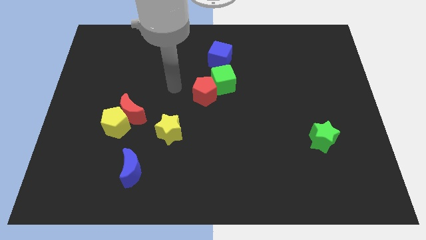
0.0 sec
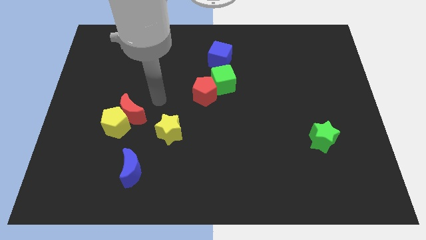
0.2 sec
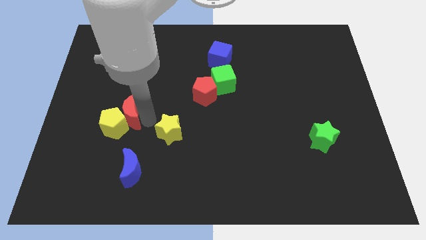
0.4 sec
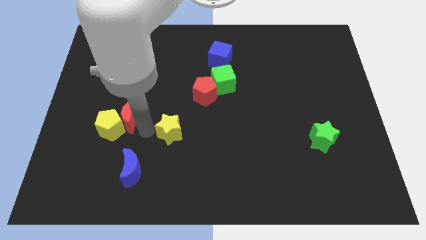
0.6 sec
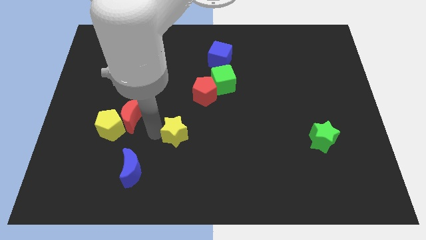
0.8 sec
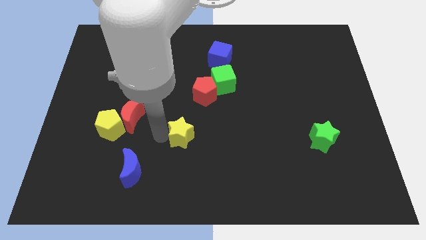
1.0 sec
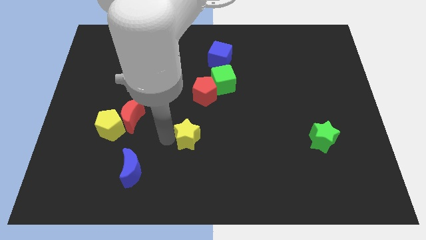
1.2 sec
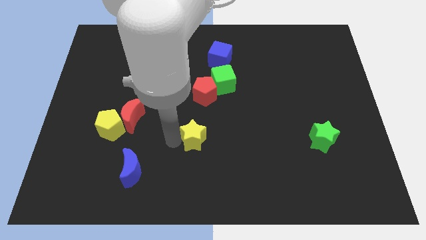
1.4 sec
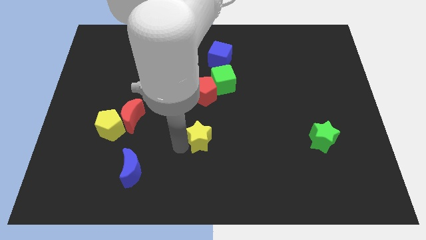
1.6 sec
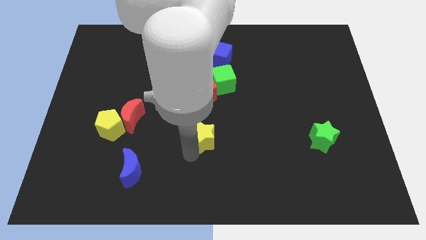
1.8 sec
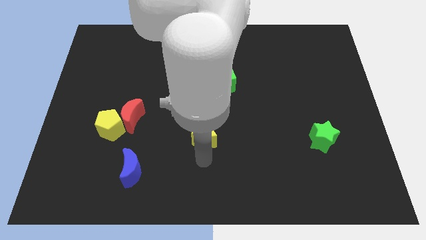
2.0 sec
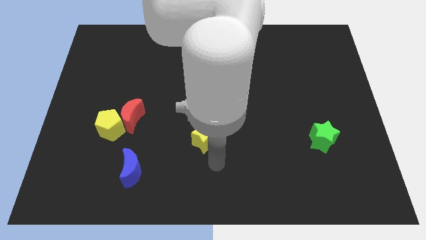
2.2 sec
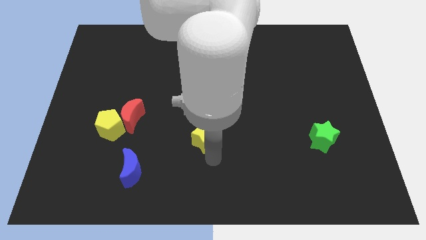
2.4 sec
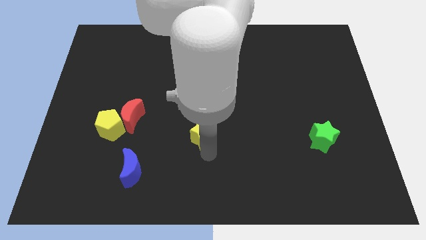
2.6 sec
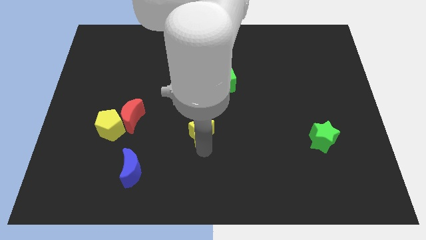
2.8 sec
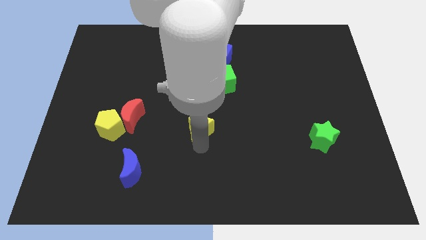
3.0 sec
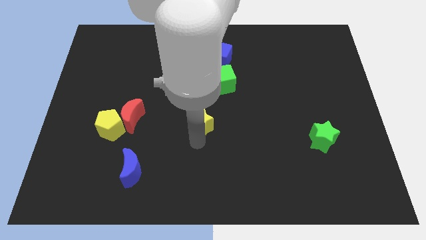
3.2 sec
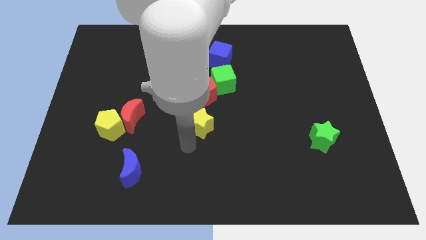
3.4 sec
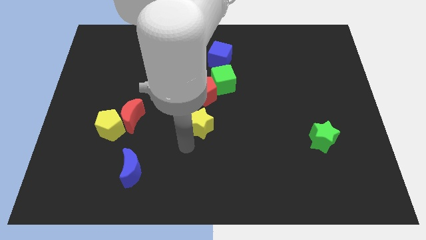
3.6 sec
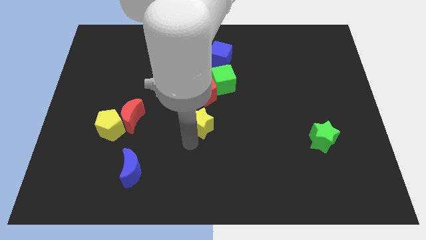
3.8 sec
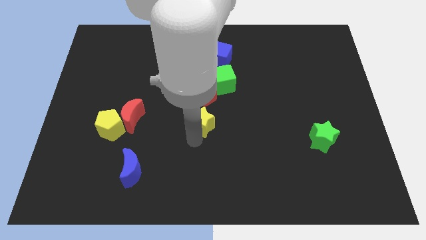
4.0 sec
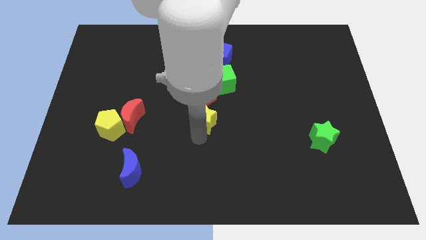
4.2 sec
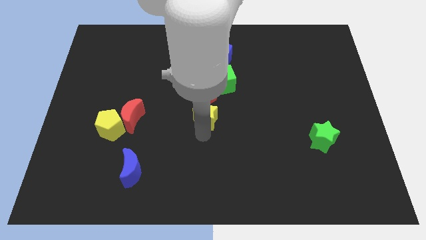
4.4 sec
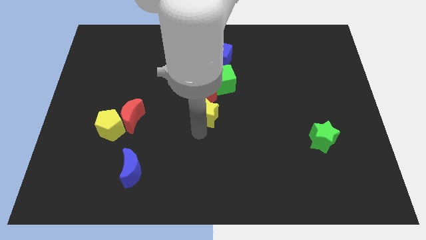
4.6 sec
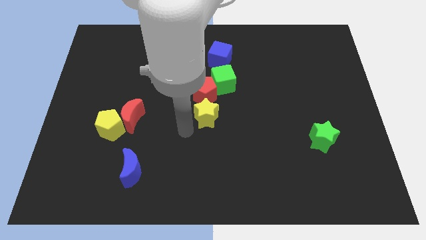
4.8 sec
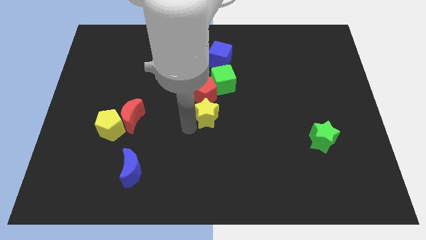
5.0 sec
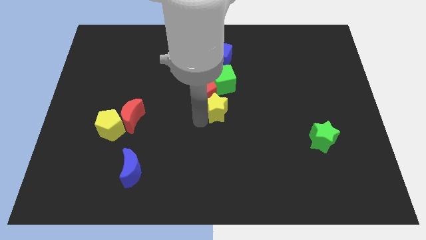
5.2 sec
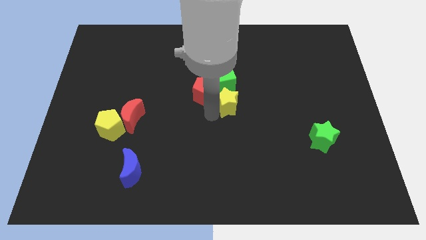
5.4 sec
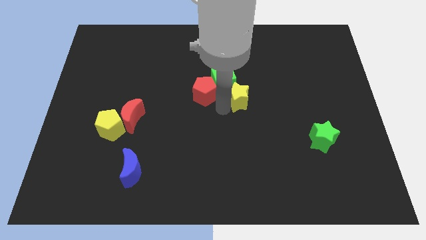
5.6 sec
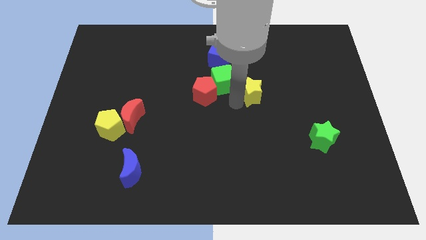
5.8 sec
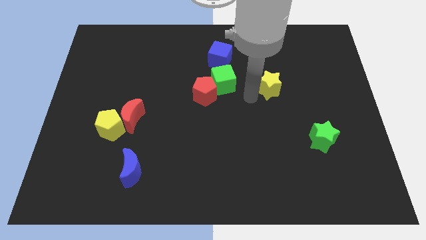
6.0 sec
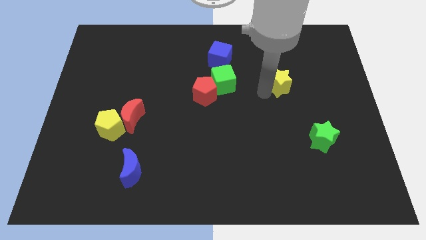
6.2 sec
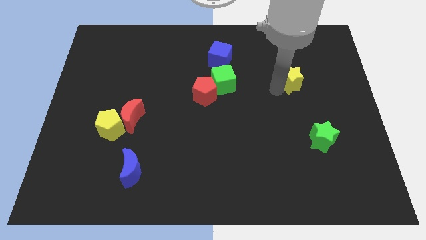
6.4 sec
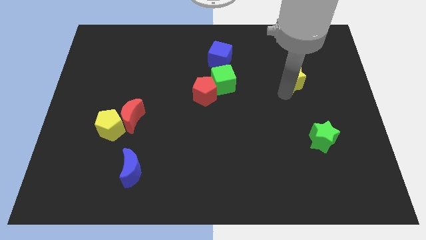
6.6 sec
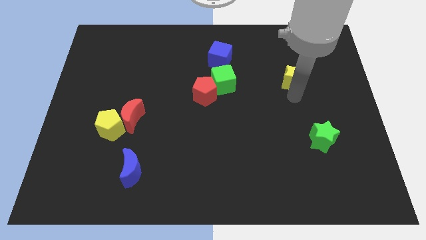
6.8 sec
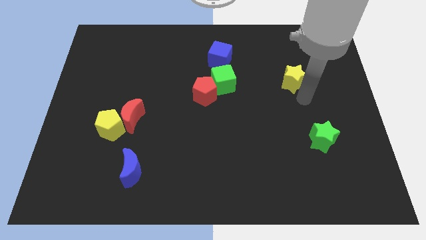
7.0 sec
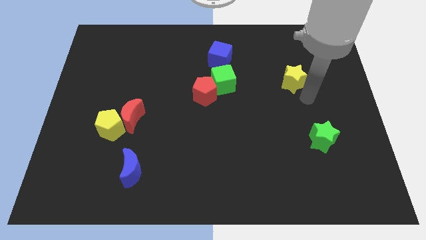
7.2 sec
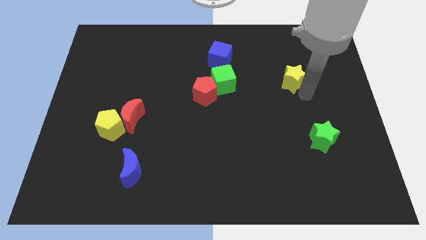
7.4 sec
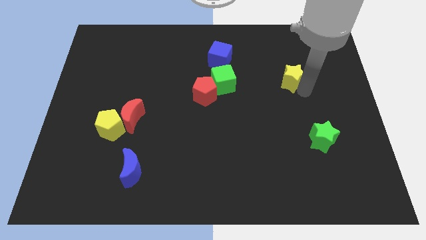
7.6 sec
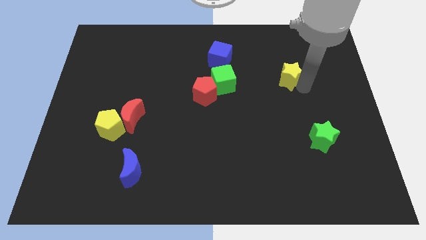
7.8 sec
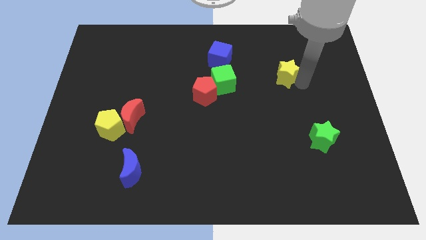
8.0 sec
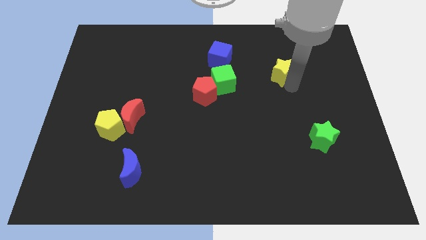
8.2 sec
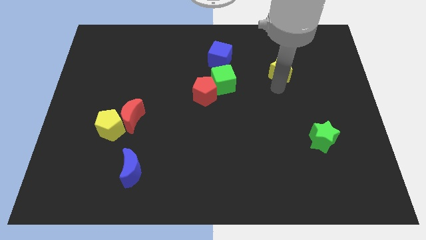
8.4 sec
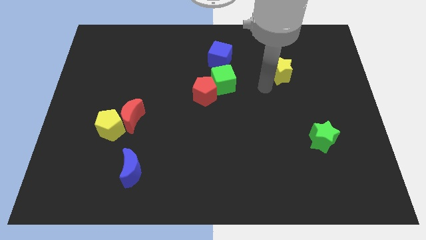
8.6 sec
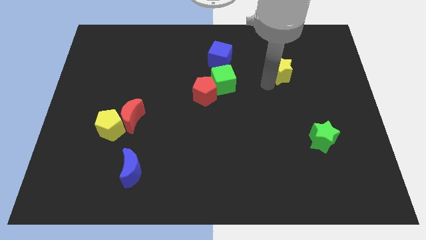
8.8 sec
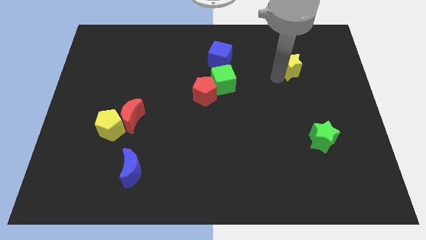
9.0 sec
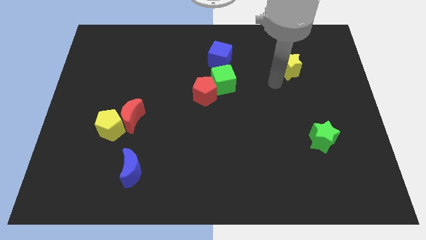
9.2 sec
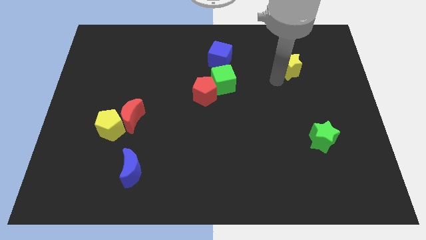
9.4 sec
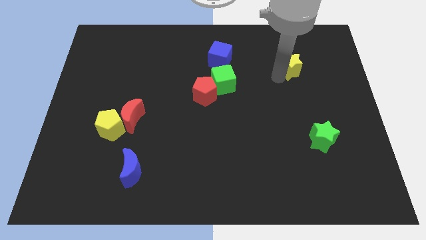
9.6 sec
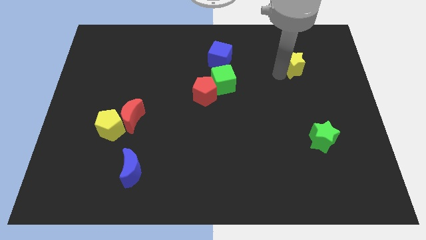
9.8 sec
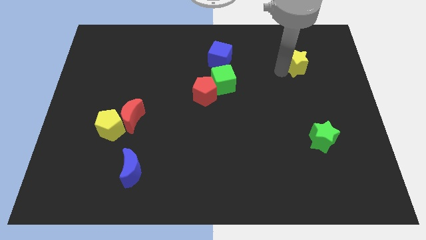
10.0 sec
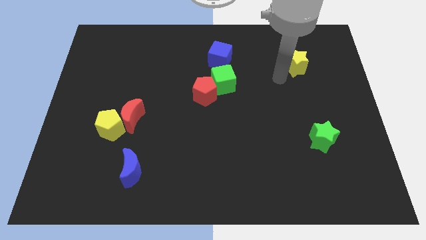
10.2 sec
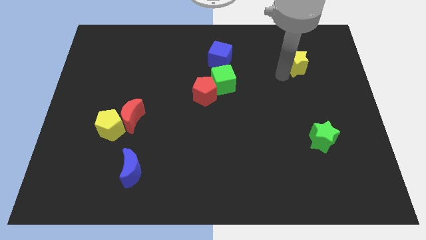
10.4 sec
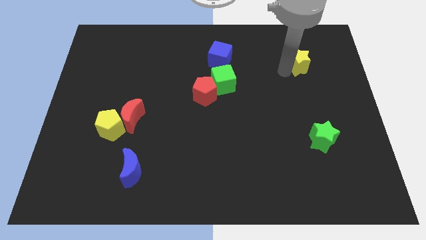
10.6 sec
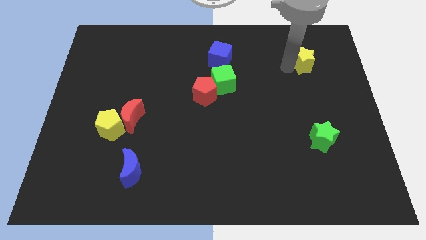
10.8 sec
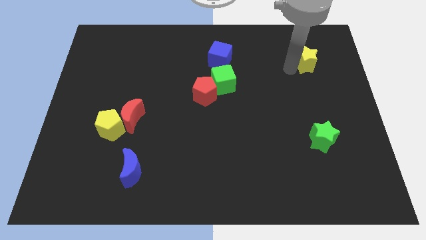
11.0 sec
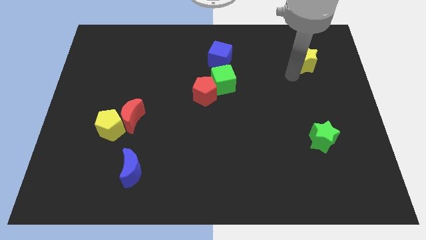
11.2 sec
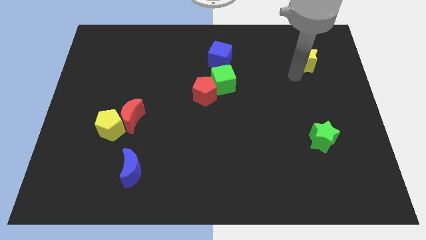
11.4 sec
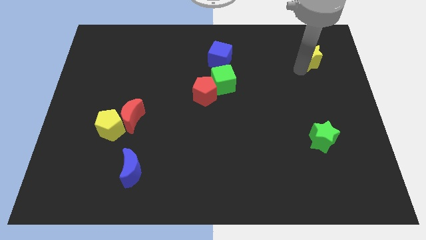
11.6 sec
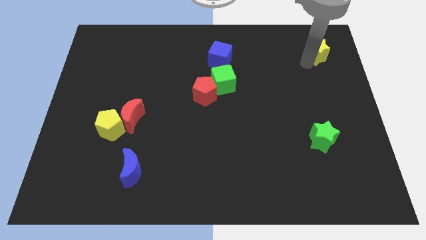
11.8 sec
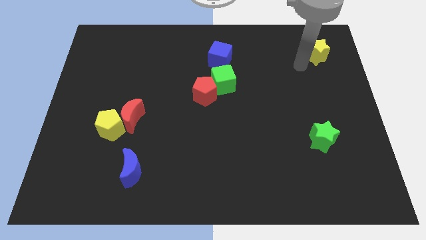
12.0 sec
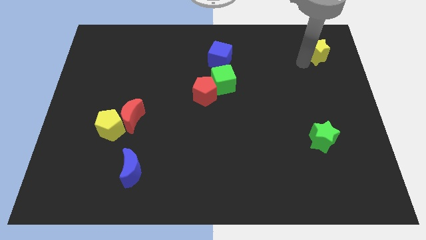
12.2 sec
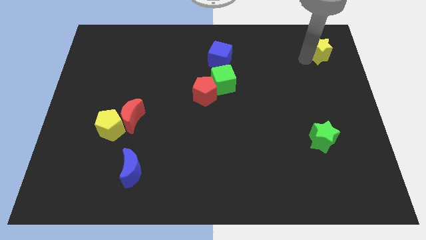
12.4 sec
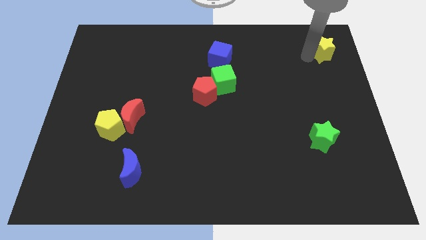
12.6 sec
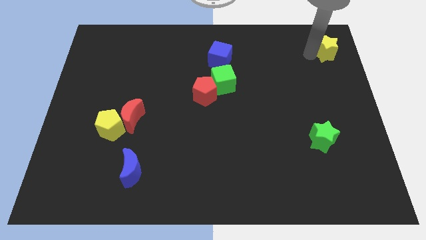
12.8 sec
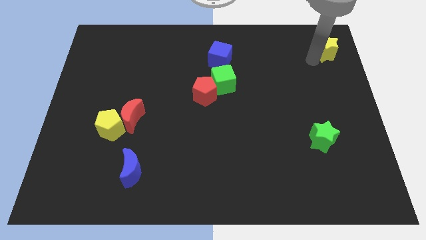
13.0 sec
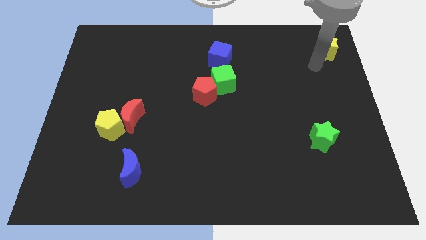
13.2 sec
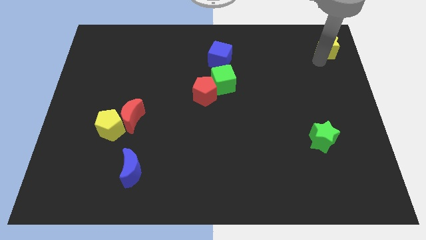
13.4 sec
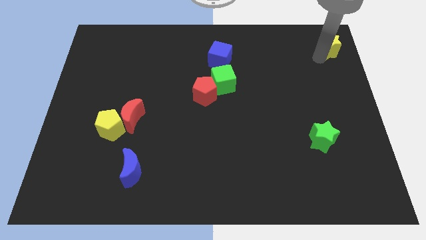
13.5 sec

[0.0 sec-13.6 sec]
put the yellow star to the top right
